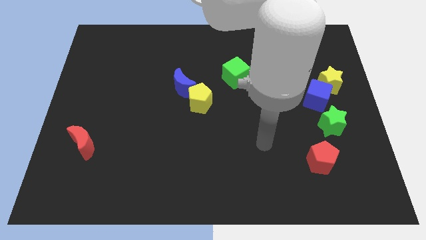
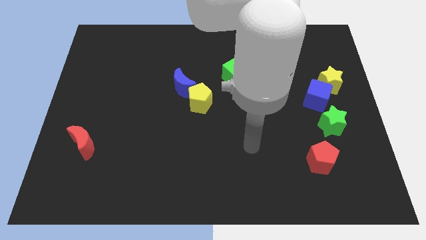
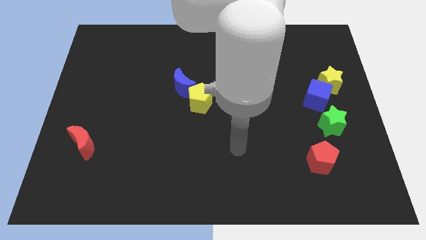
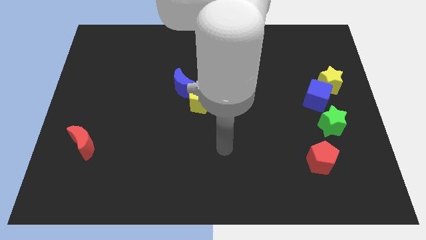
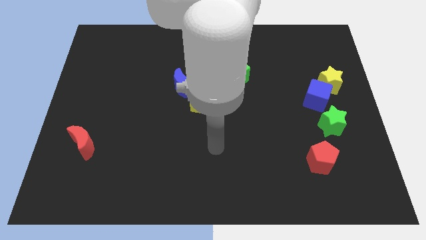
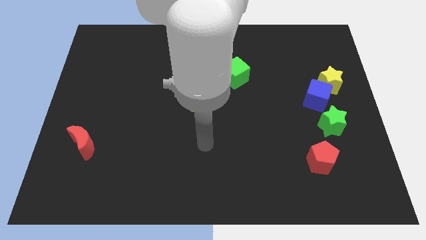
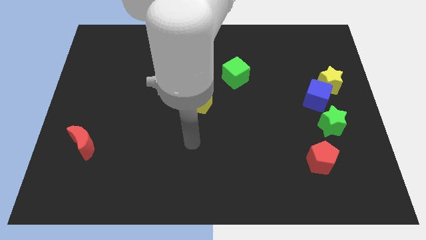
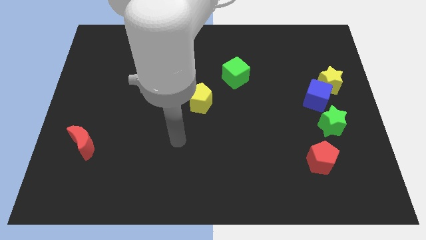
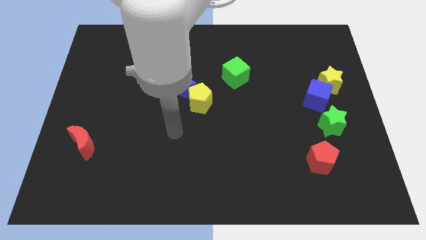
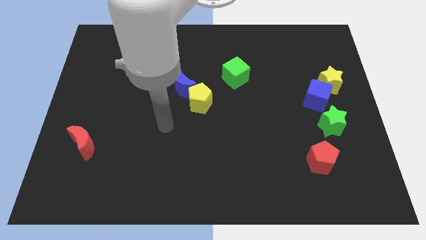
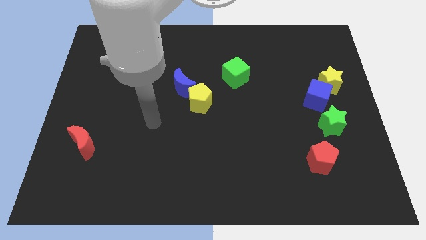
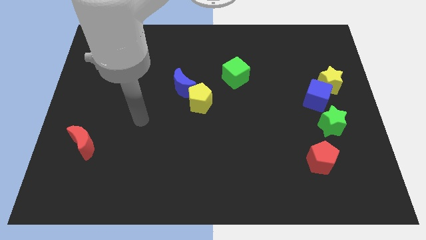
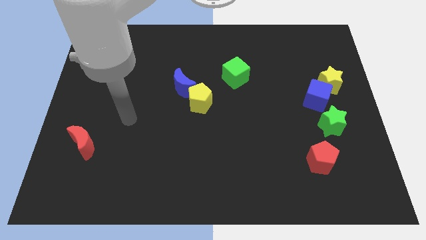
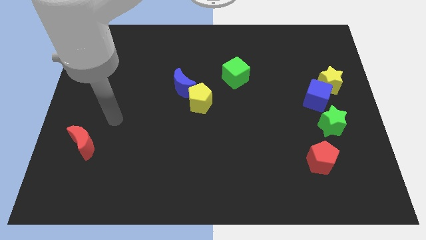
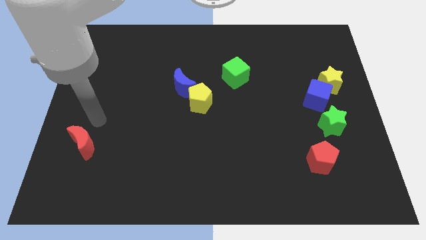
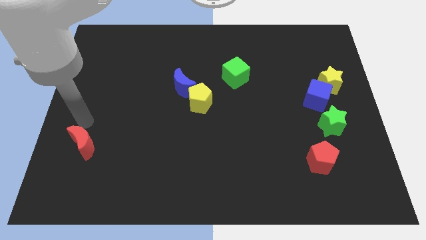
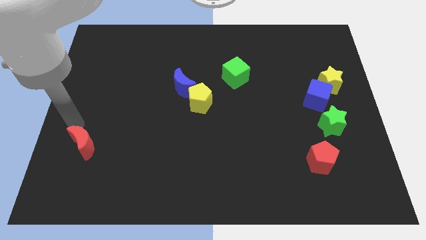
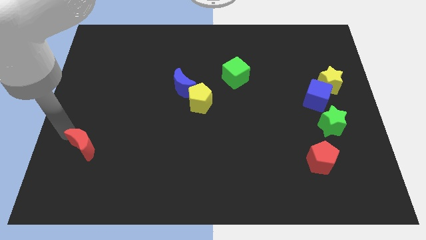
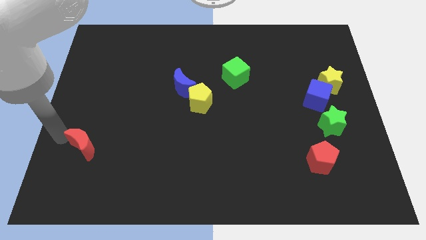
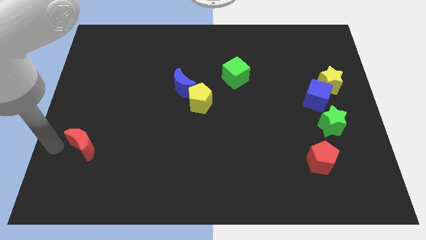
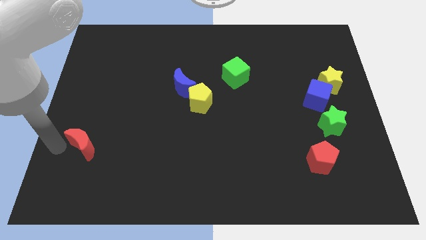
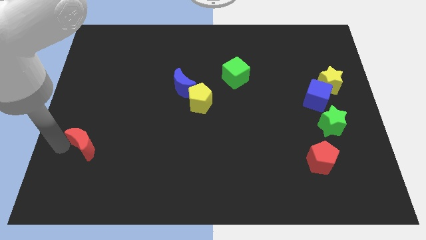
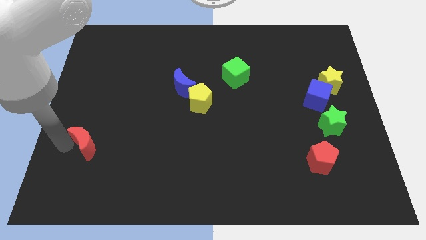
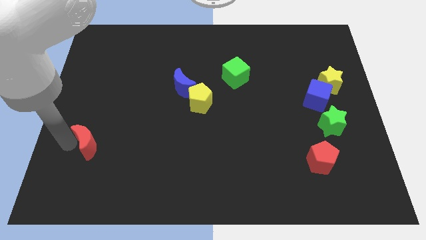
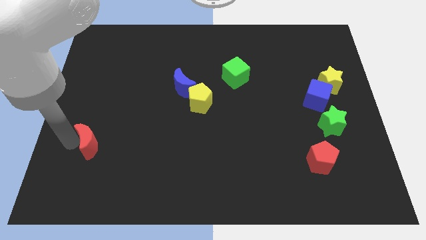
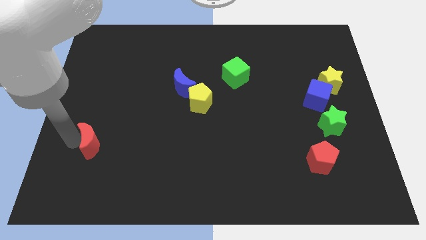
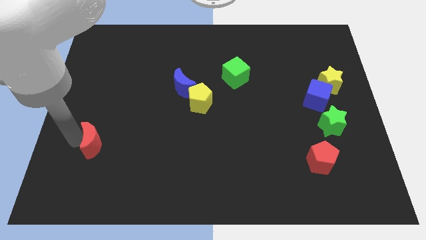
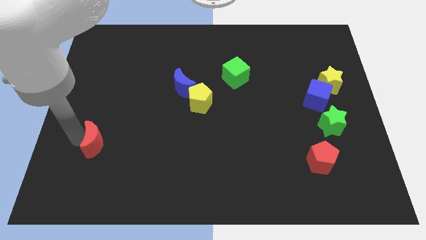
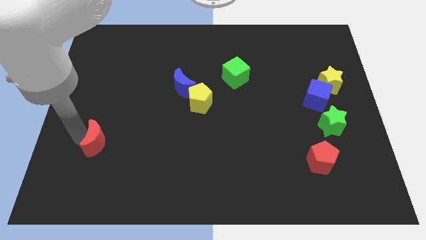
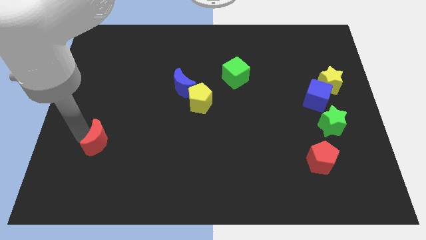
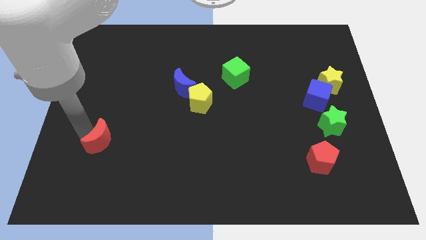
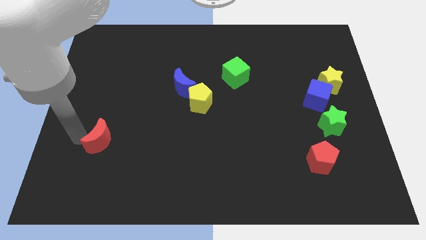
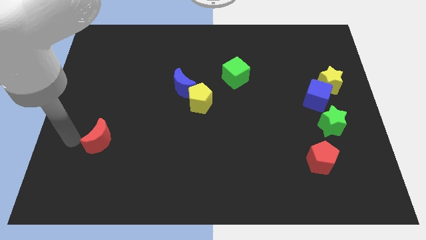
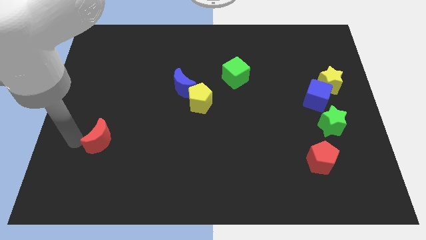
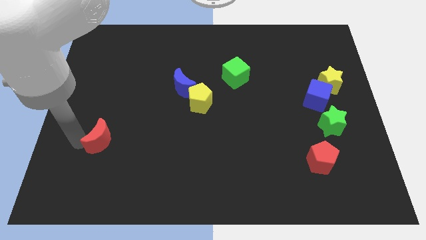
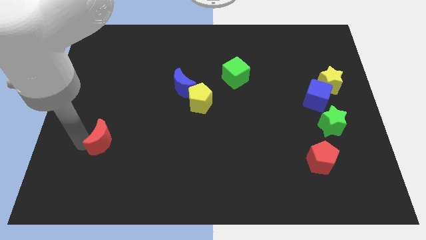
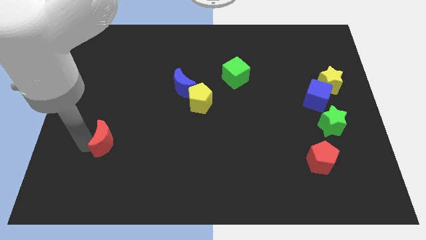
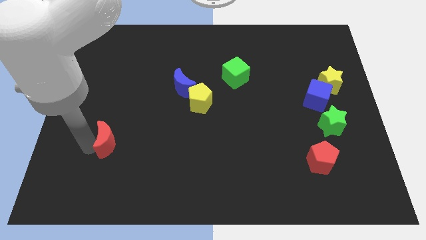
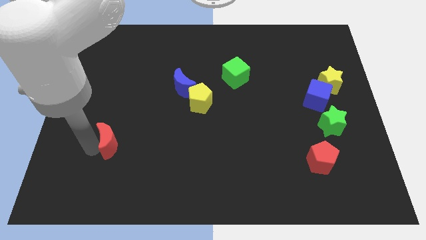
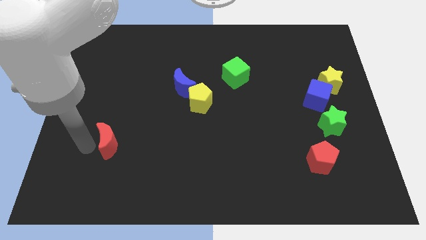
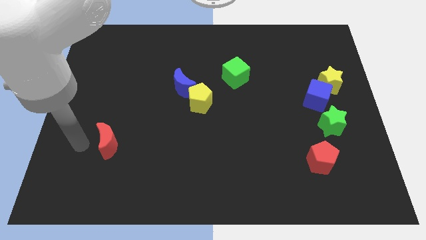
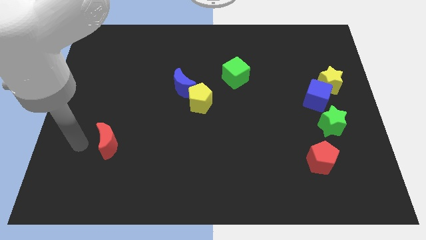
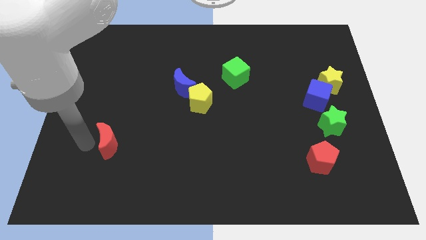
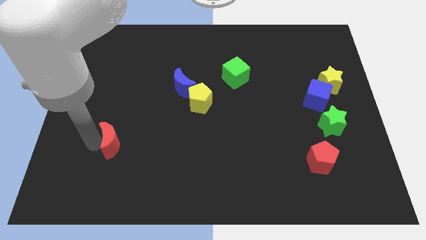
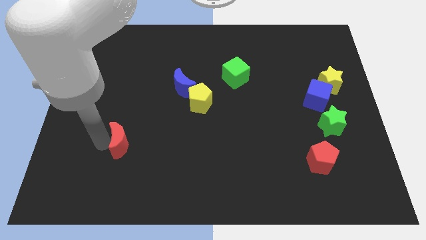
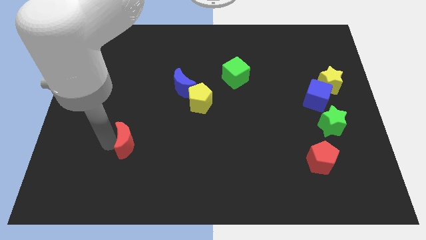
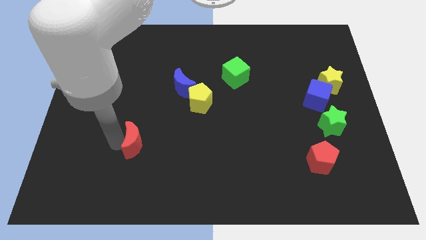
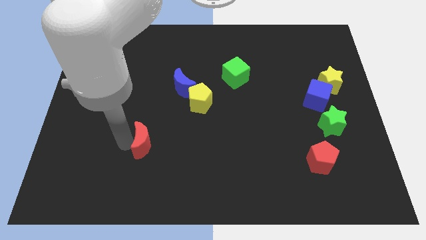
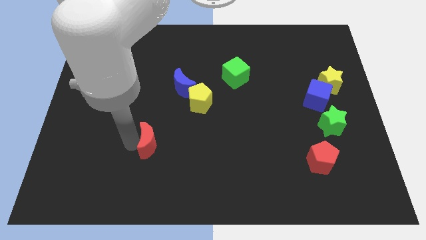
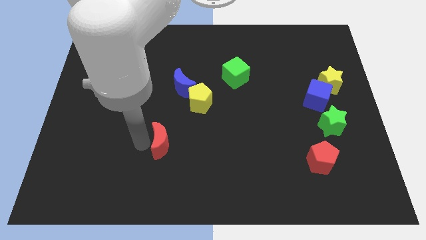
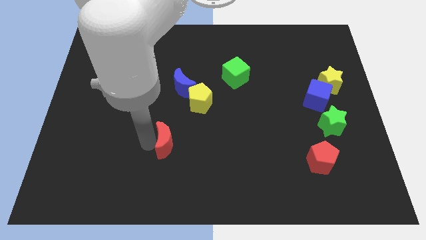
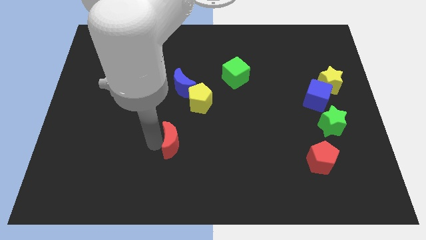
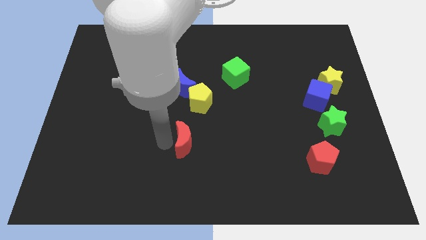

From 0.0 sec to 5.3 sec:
slide the red moon to the right

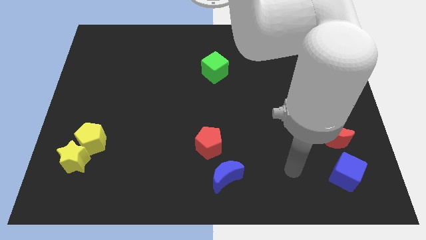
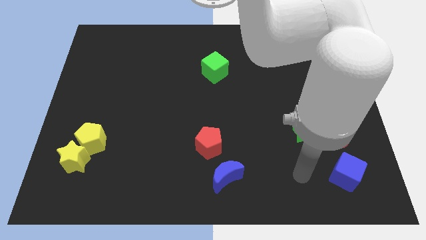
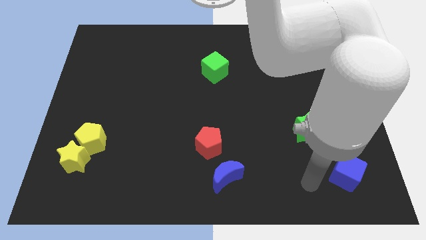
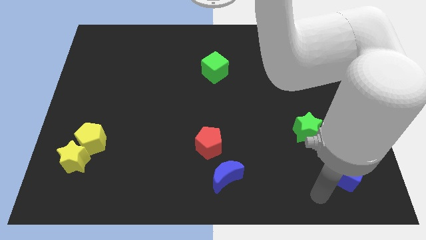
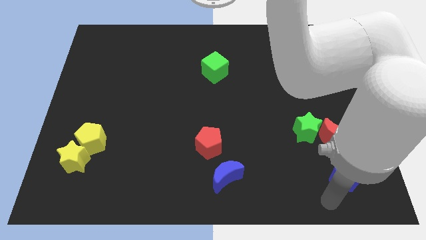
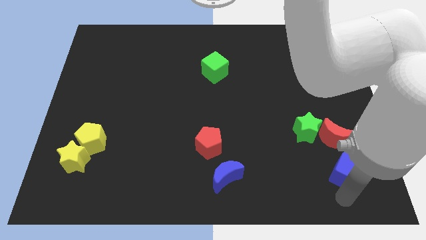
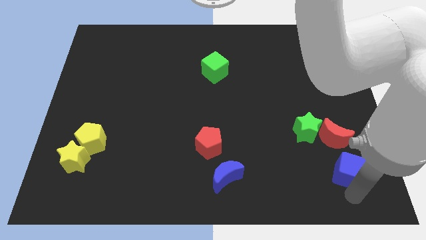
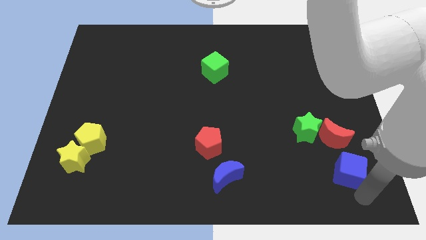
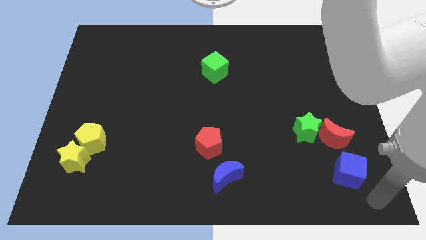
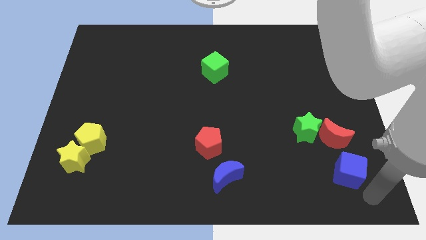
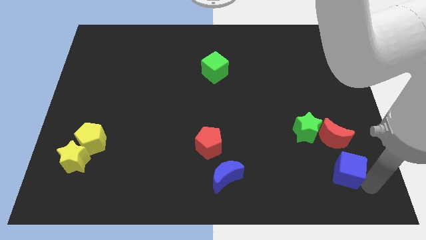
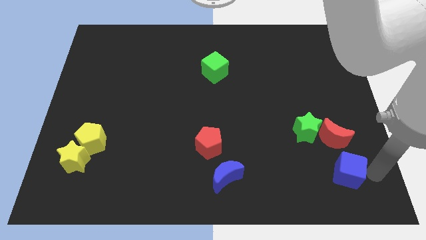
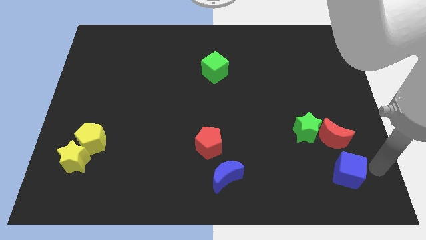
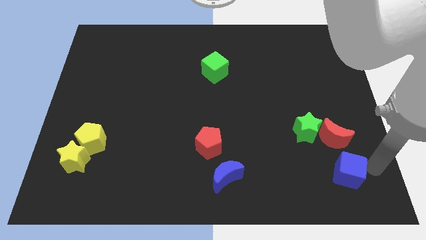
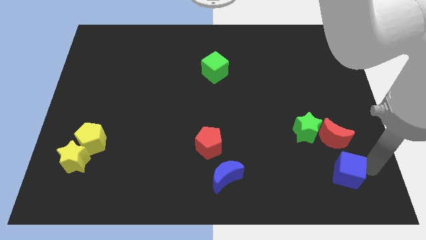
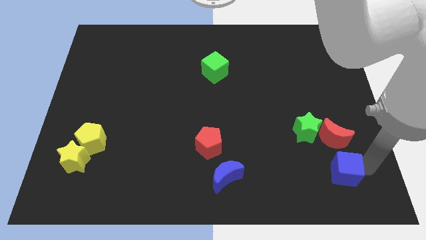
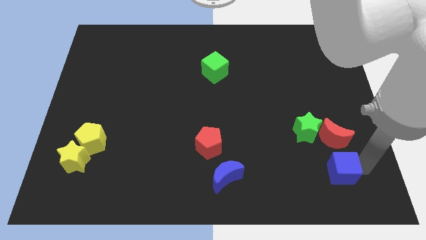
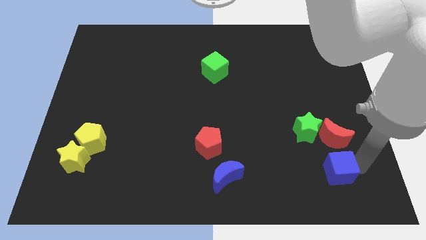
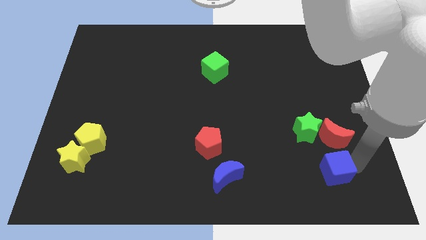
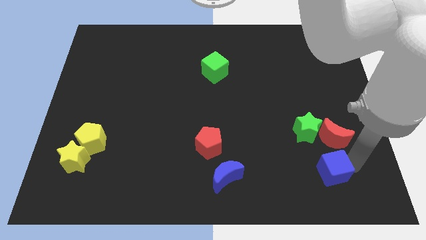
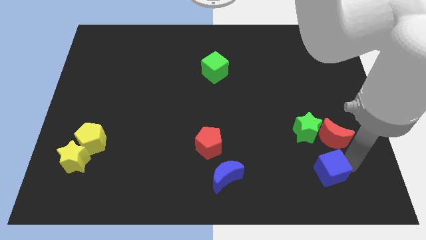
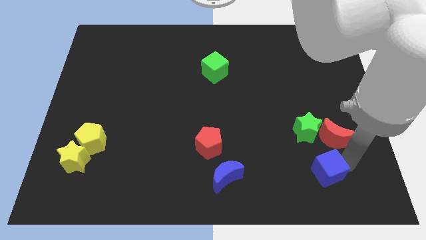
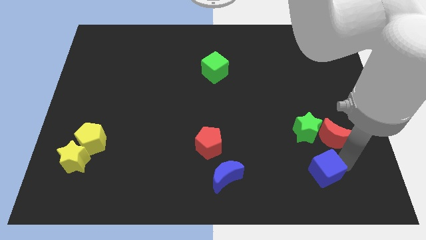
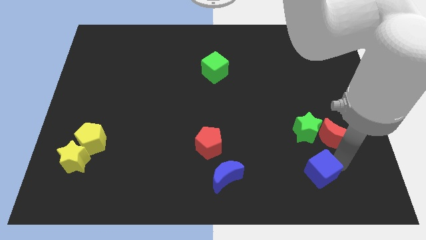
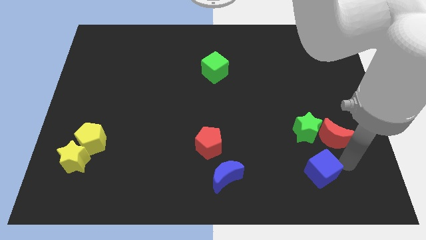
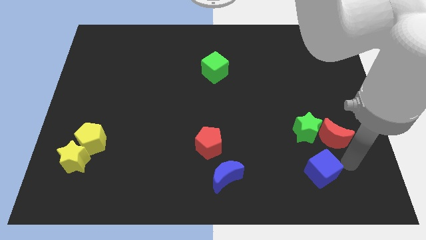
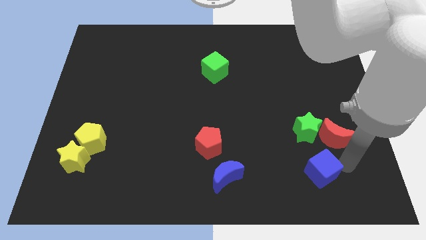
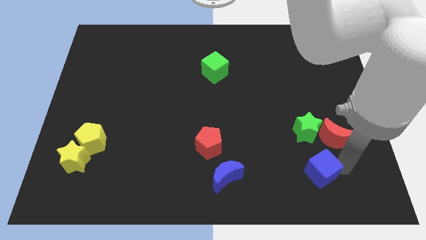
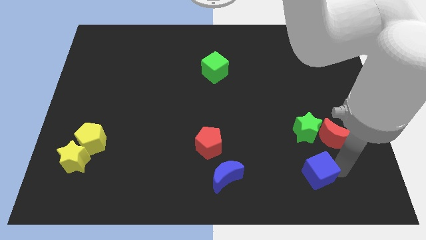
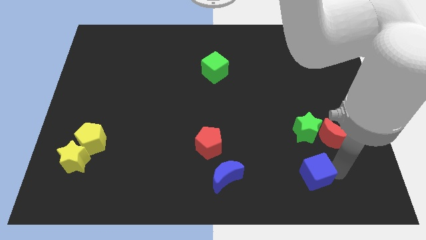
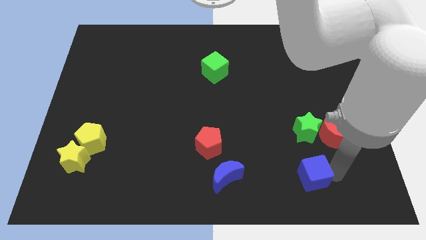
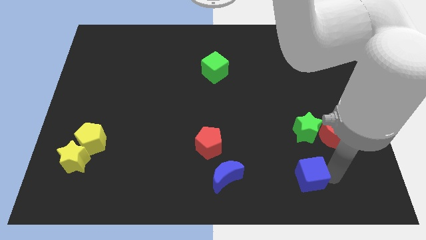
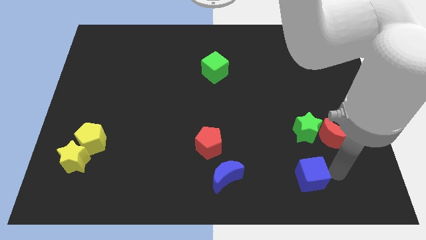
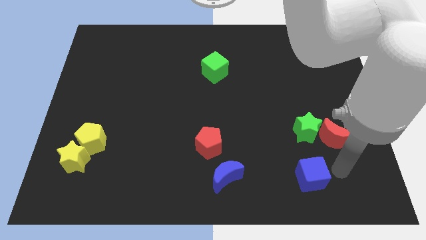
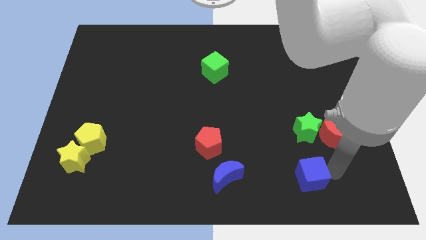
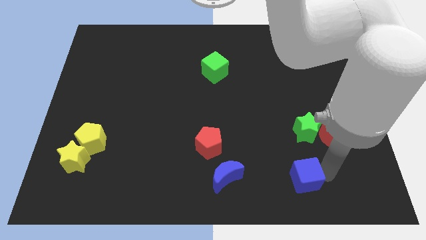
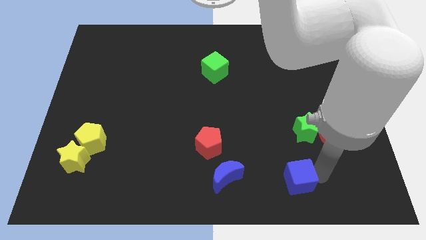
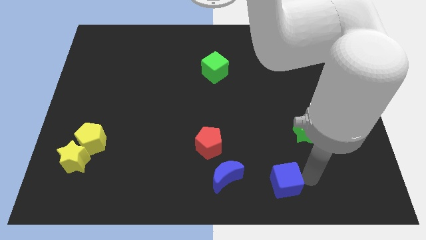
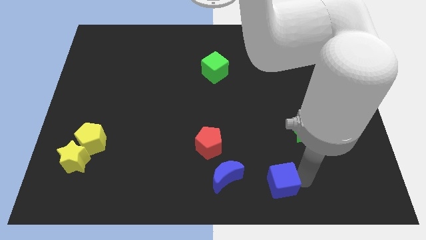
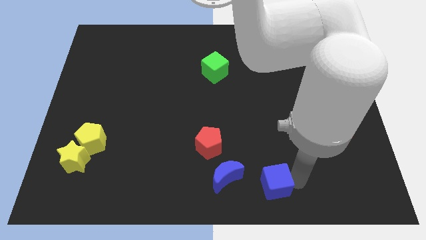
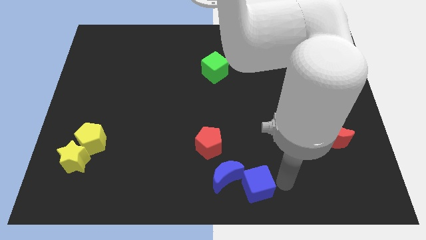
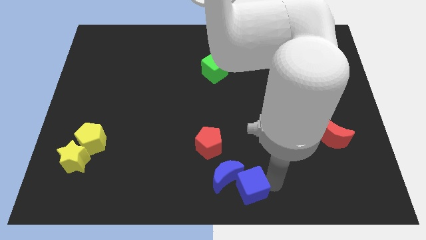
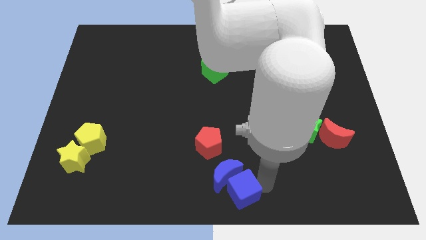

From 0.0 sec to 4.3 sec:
push the blue cube left
